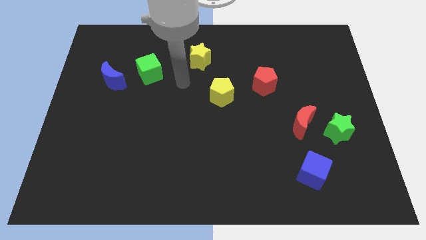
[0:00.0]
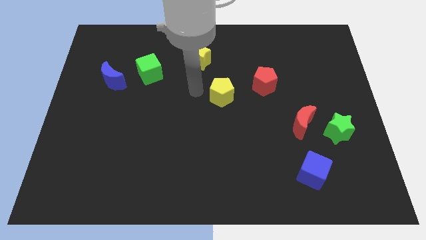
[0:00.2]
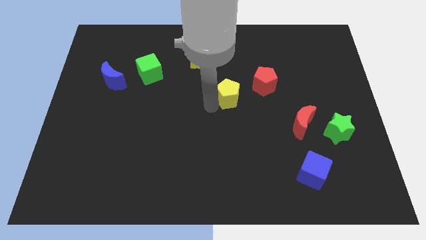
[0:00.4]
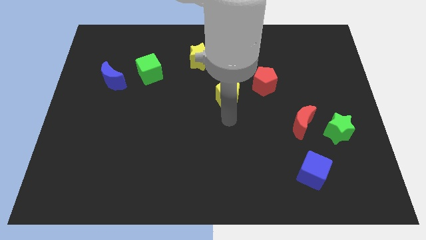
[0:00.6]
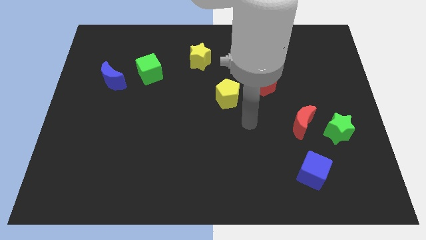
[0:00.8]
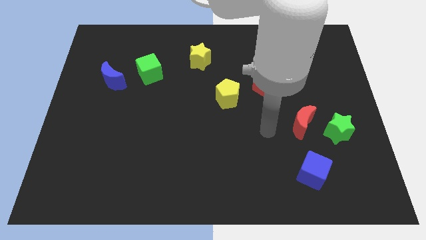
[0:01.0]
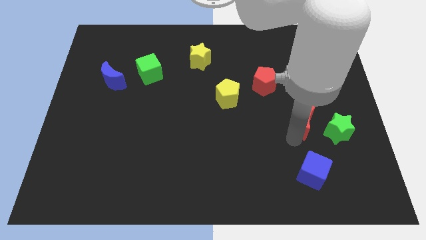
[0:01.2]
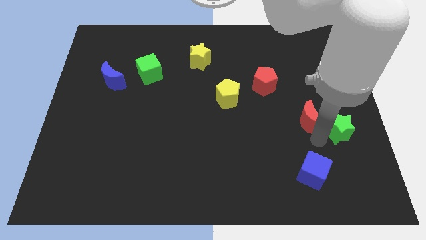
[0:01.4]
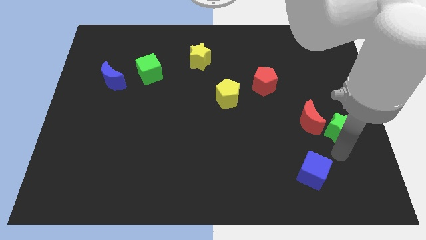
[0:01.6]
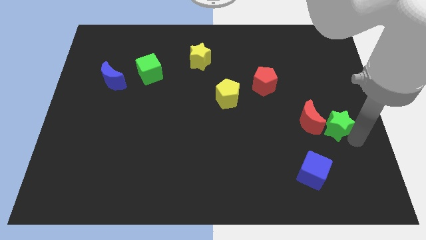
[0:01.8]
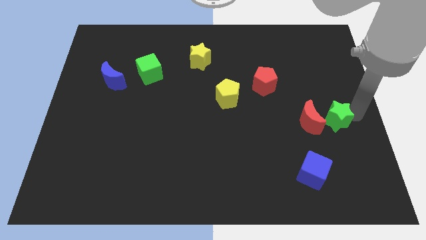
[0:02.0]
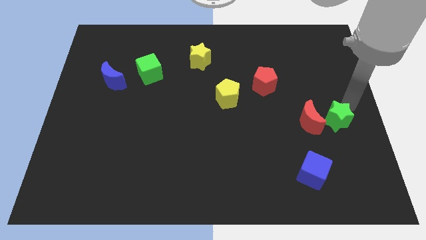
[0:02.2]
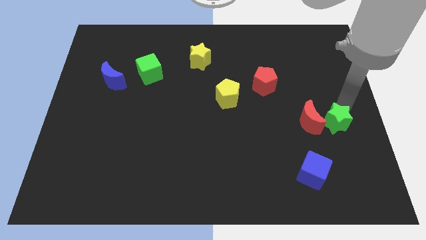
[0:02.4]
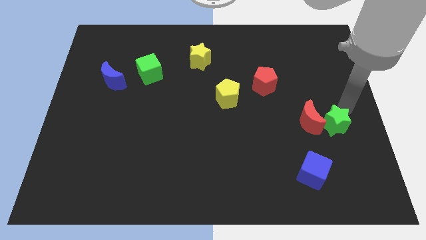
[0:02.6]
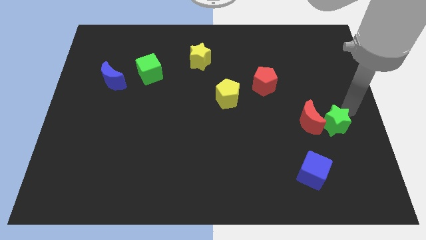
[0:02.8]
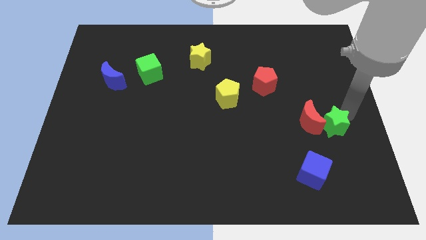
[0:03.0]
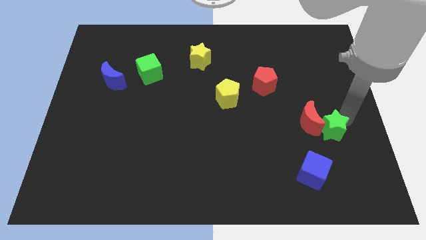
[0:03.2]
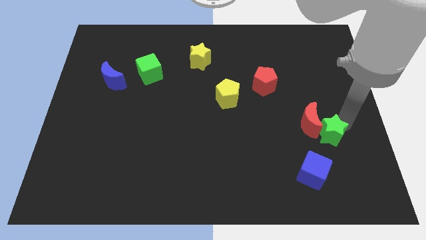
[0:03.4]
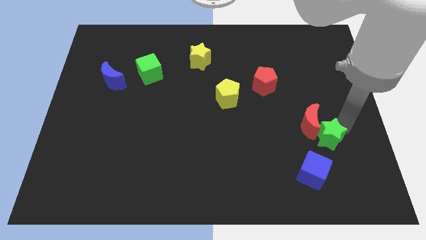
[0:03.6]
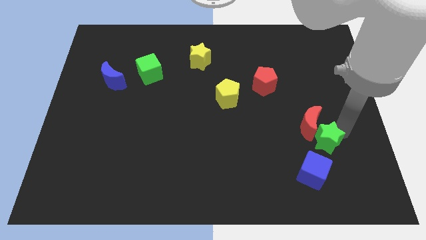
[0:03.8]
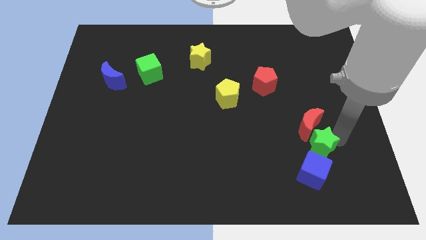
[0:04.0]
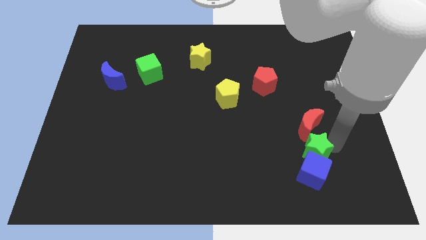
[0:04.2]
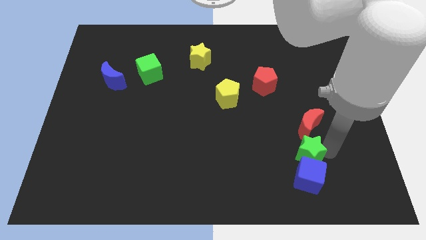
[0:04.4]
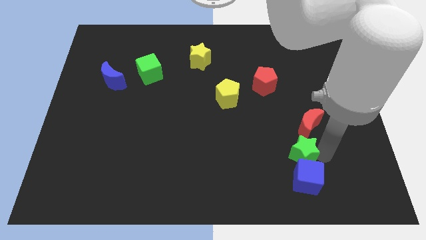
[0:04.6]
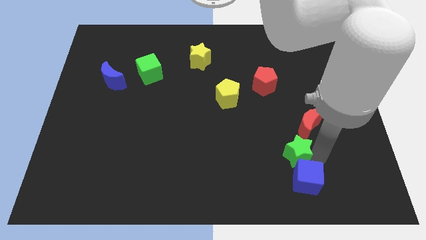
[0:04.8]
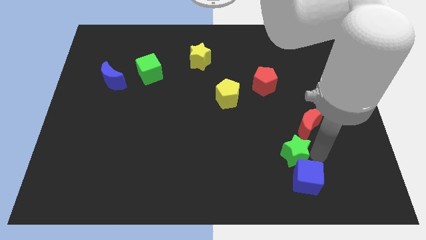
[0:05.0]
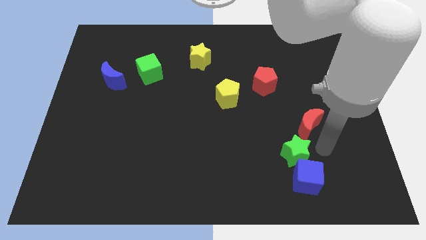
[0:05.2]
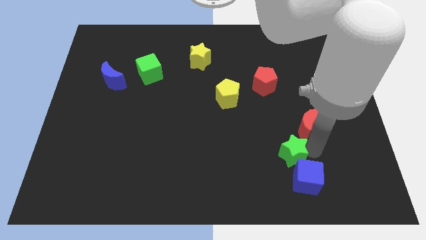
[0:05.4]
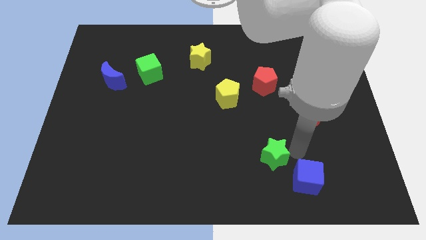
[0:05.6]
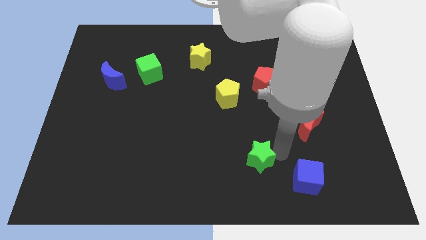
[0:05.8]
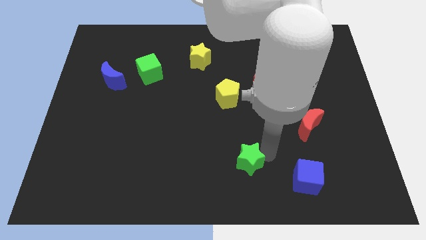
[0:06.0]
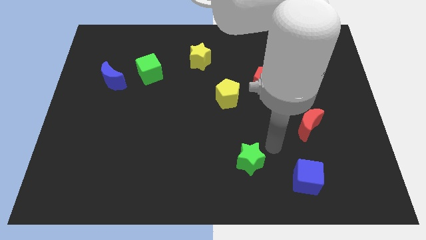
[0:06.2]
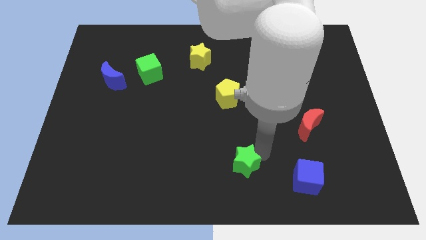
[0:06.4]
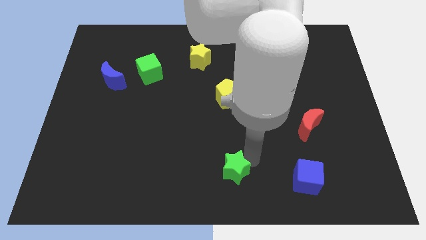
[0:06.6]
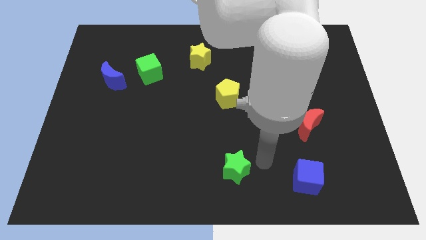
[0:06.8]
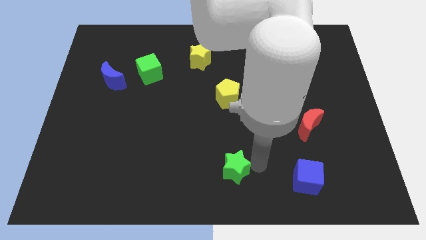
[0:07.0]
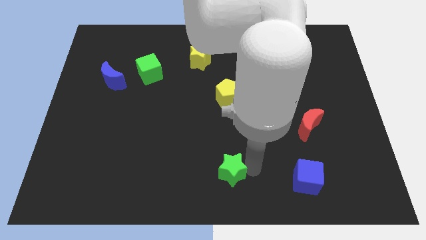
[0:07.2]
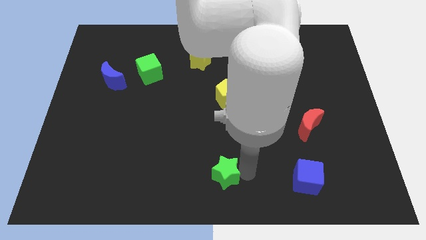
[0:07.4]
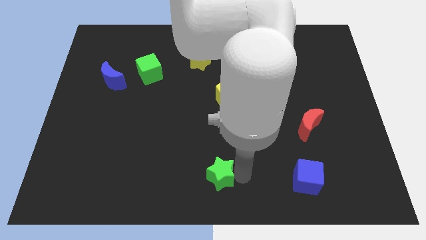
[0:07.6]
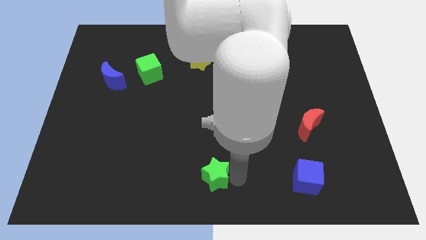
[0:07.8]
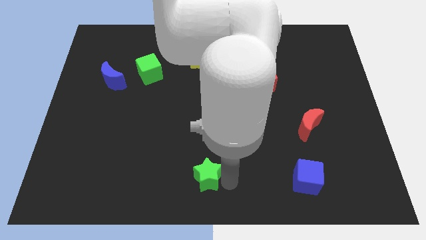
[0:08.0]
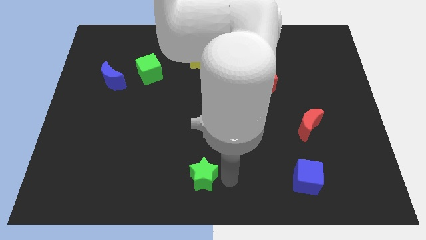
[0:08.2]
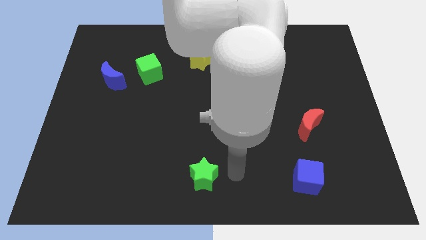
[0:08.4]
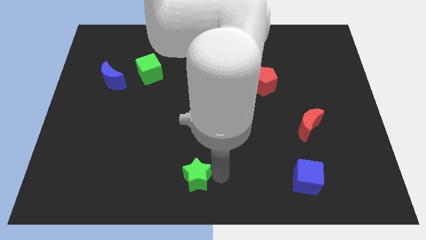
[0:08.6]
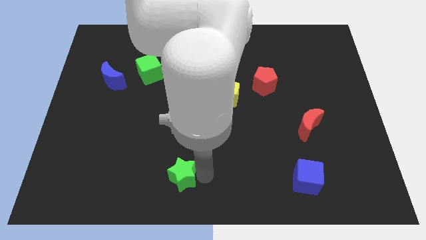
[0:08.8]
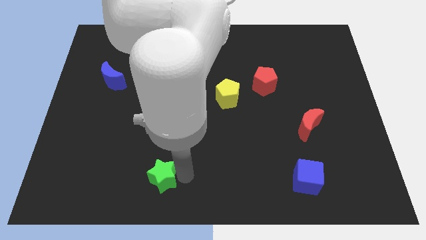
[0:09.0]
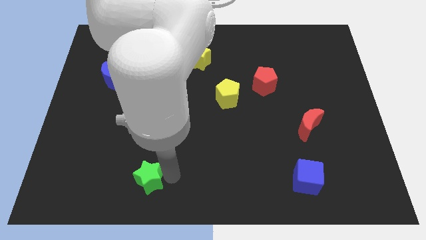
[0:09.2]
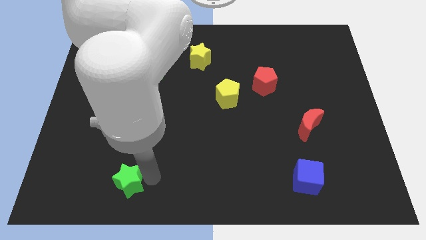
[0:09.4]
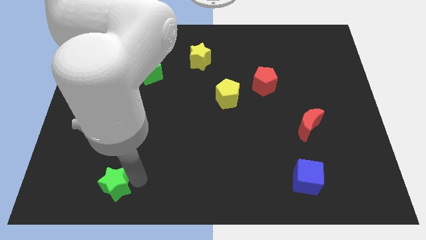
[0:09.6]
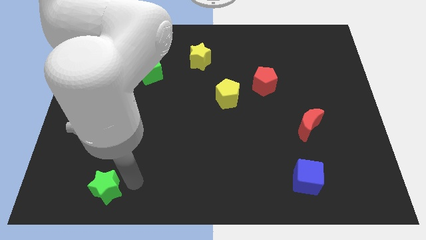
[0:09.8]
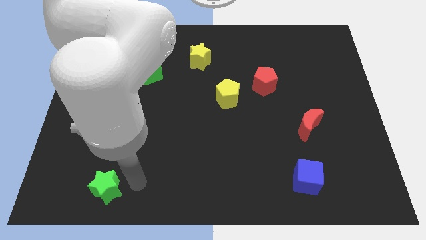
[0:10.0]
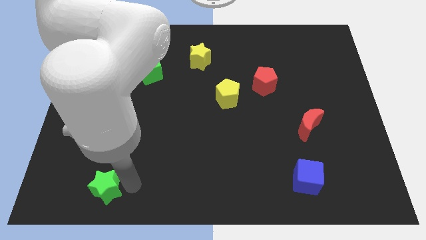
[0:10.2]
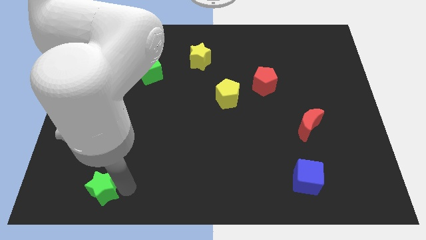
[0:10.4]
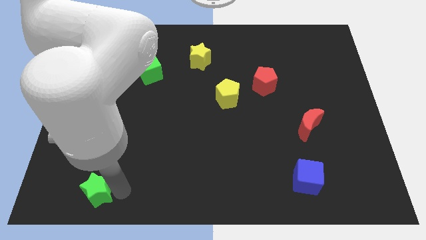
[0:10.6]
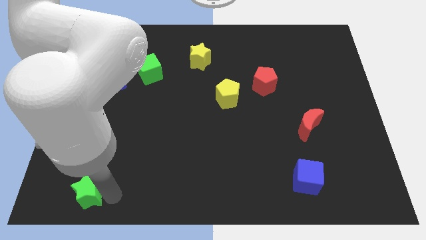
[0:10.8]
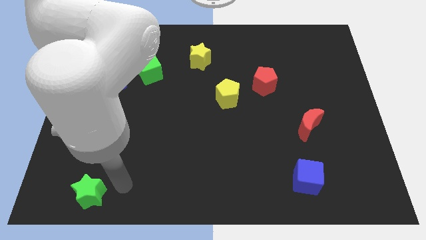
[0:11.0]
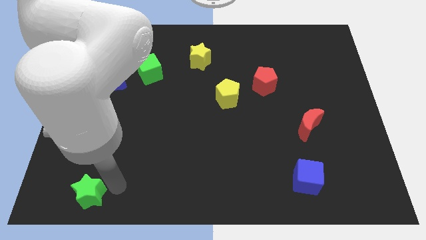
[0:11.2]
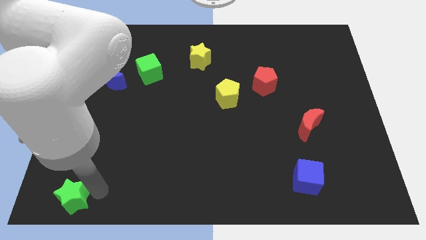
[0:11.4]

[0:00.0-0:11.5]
push the green star to the bottom left corner
